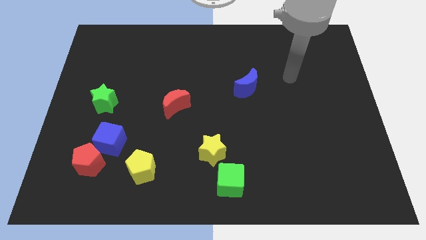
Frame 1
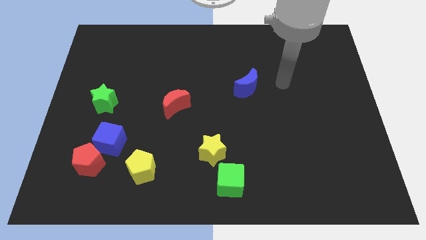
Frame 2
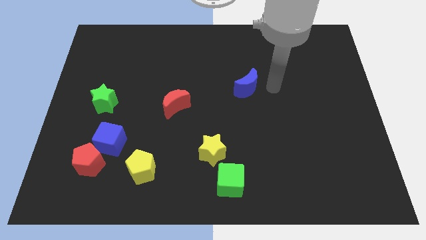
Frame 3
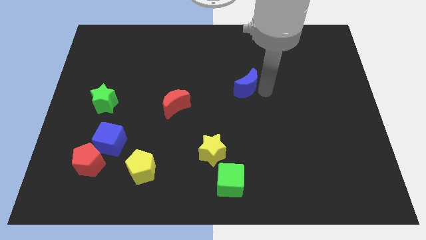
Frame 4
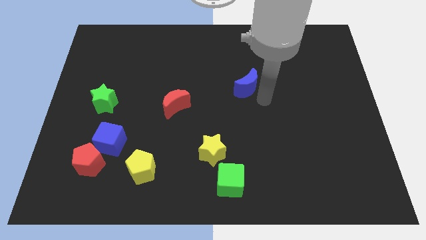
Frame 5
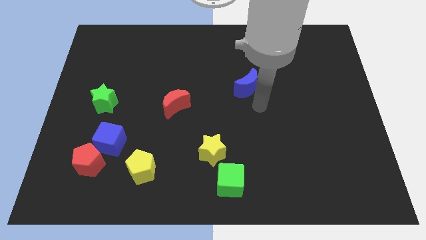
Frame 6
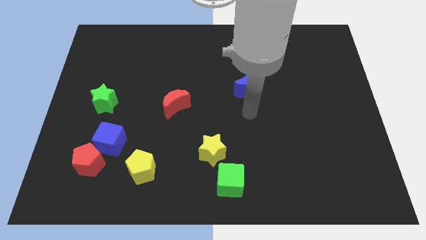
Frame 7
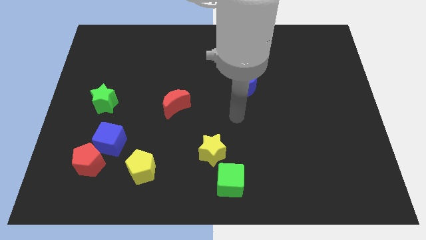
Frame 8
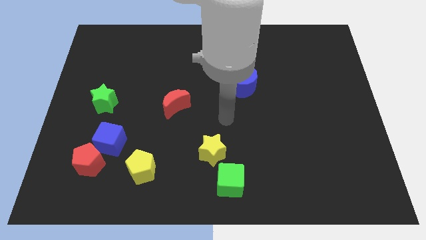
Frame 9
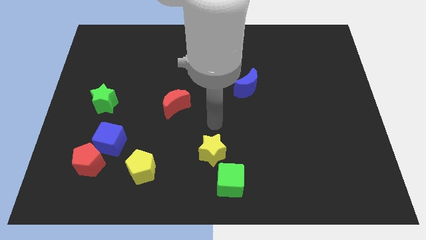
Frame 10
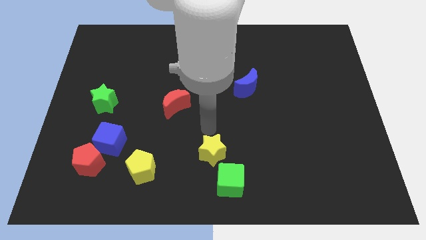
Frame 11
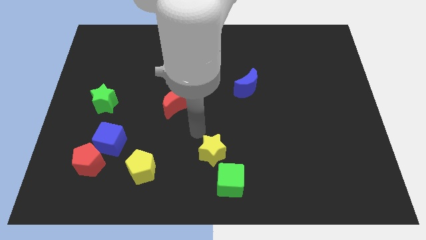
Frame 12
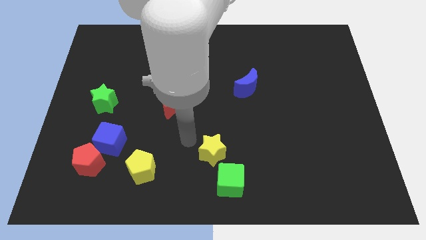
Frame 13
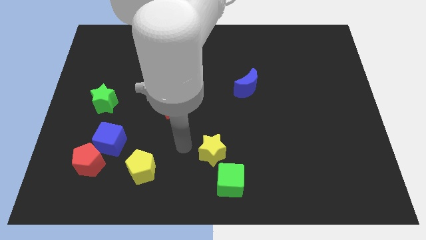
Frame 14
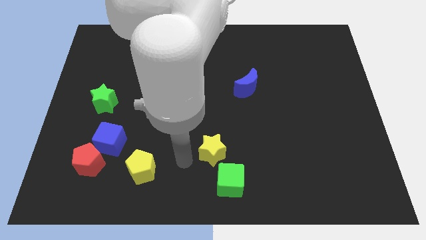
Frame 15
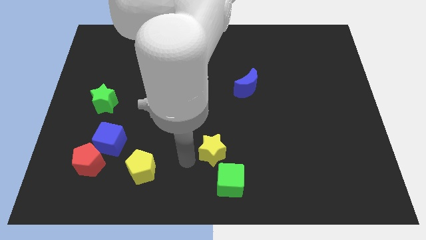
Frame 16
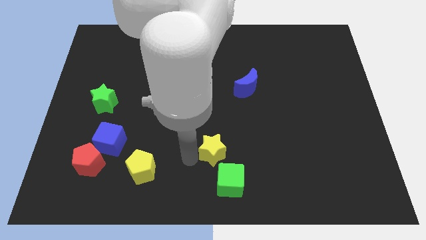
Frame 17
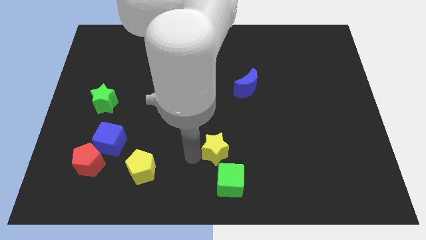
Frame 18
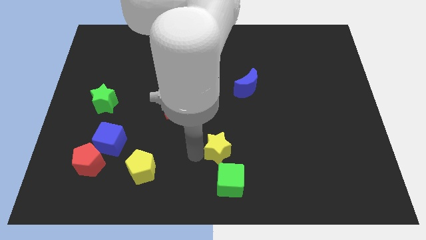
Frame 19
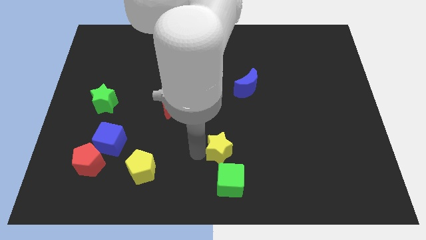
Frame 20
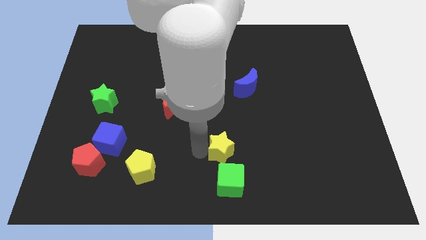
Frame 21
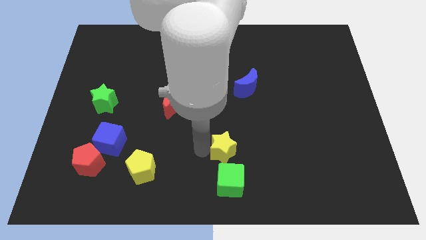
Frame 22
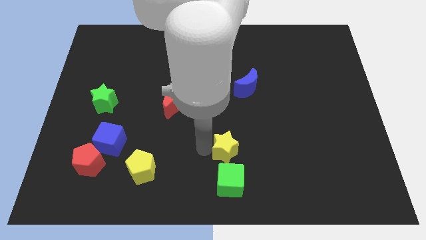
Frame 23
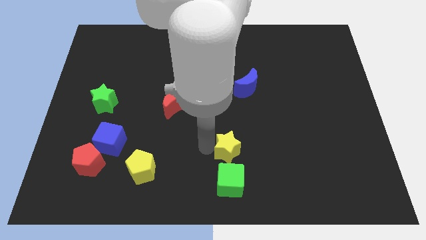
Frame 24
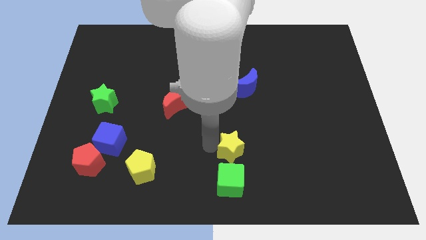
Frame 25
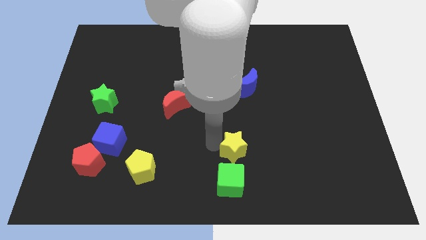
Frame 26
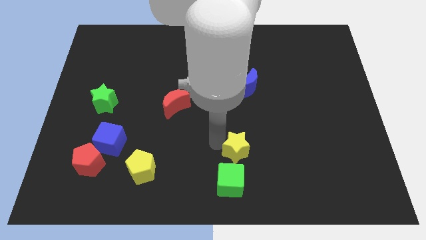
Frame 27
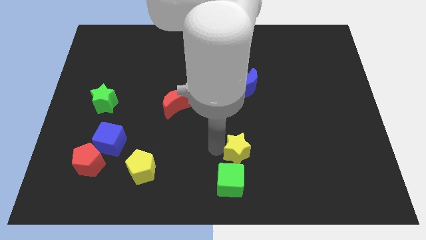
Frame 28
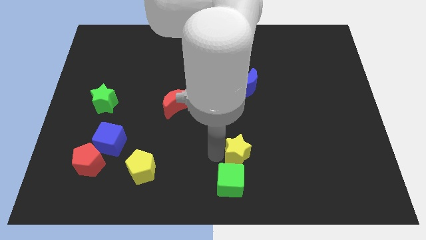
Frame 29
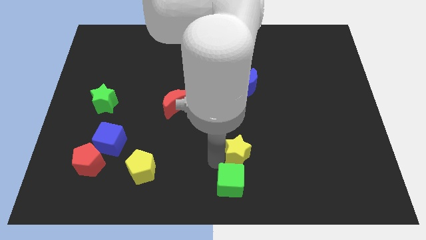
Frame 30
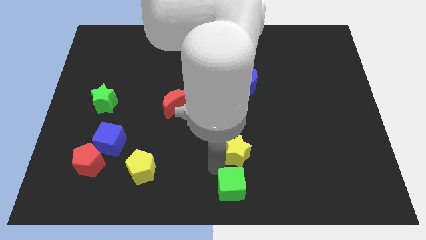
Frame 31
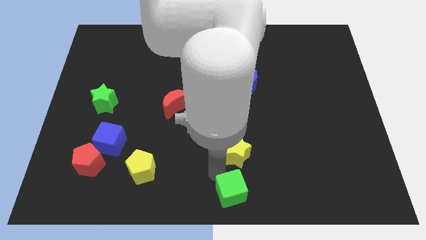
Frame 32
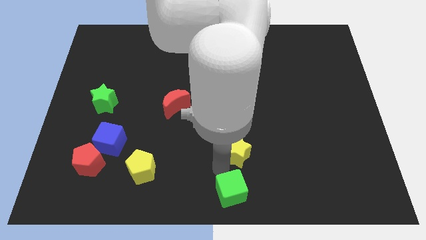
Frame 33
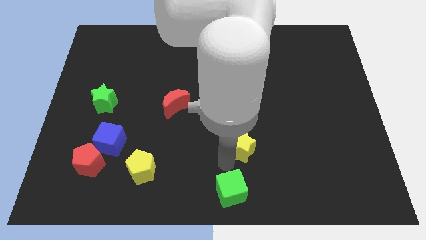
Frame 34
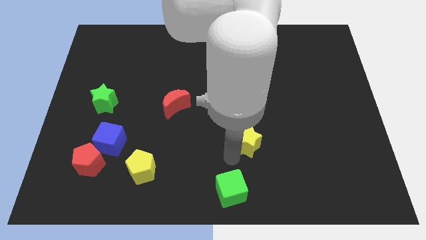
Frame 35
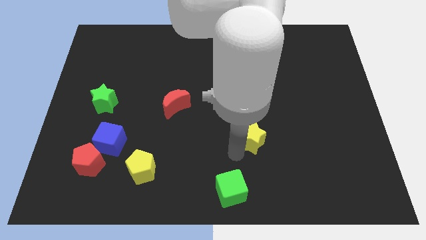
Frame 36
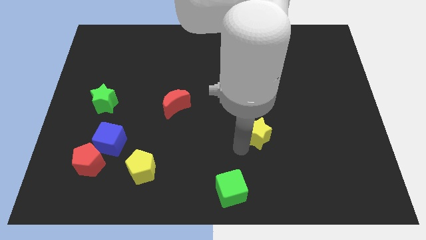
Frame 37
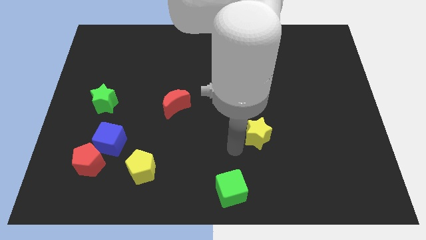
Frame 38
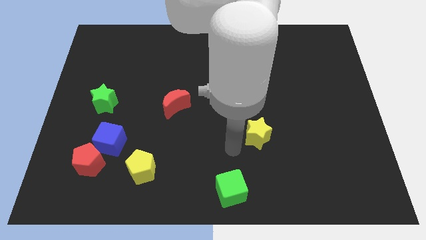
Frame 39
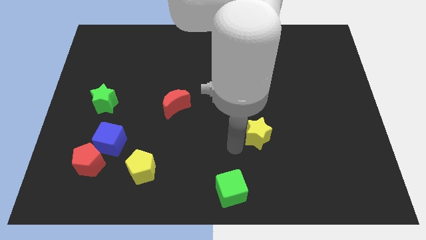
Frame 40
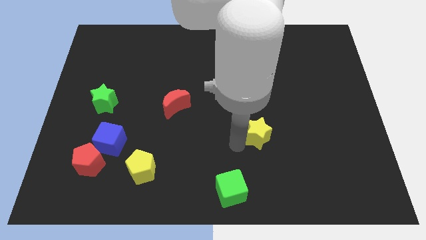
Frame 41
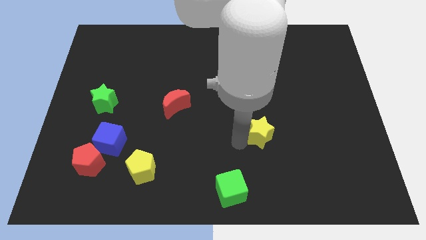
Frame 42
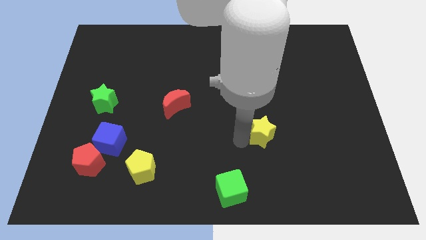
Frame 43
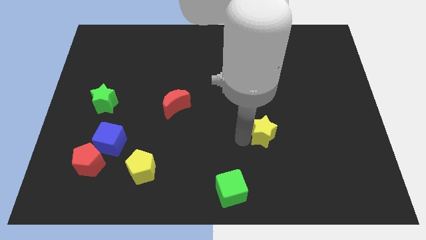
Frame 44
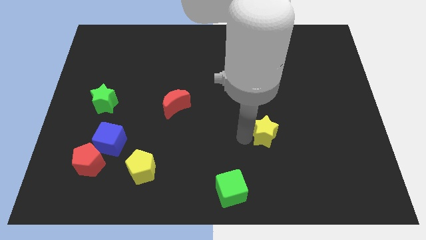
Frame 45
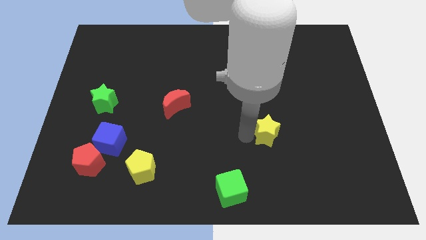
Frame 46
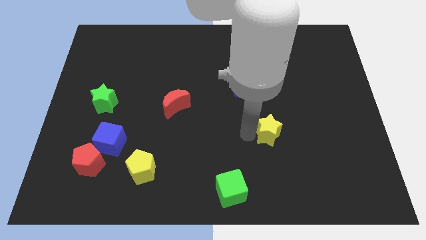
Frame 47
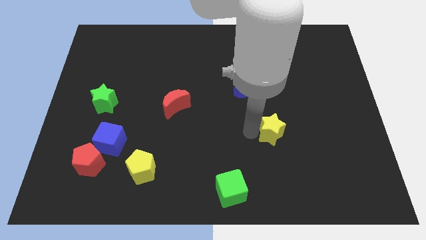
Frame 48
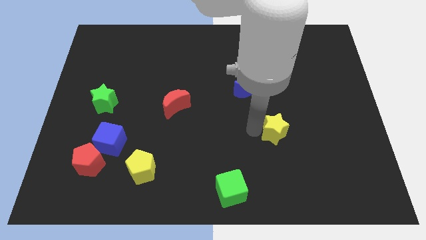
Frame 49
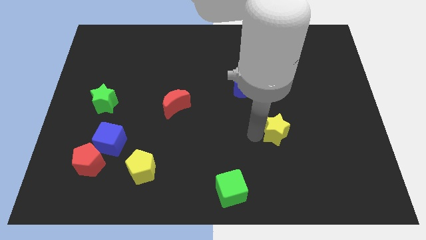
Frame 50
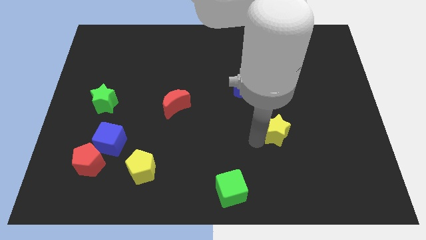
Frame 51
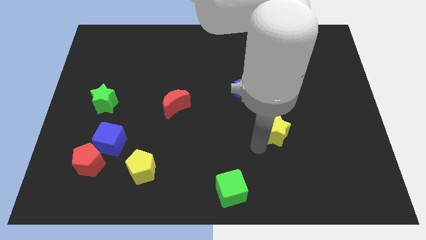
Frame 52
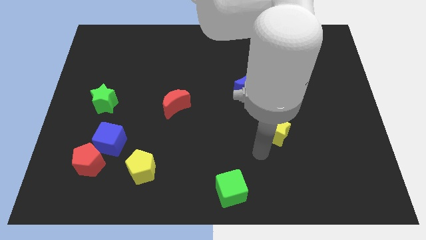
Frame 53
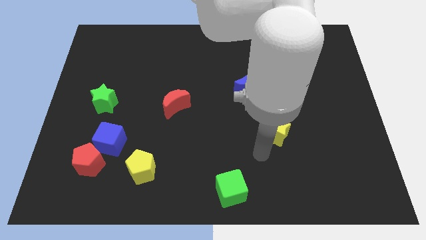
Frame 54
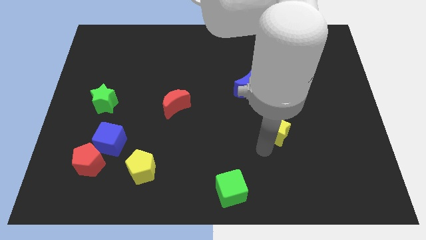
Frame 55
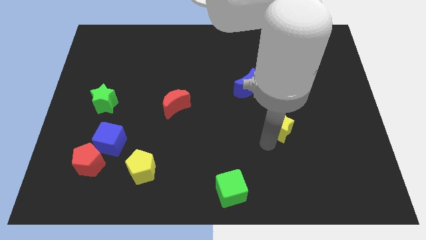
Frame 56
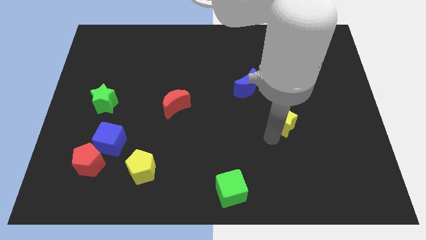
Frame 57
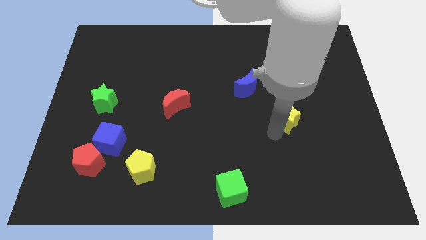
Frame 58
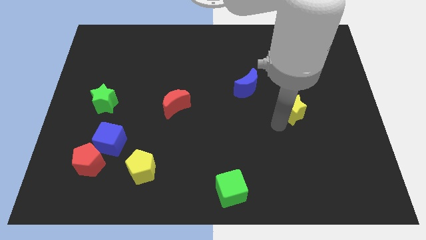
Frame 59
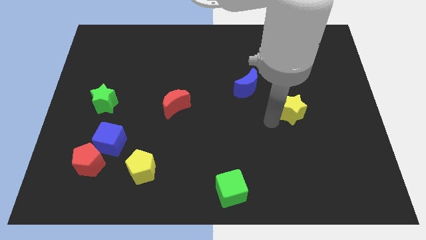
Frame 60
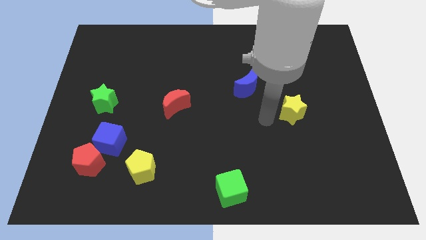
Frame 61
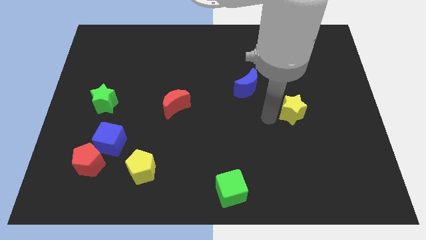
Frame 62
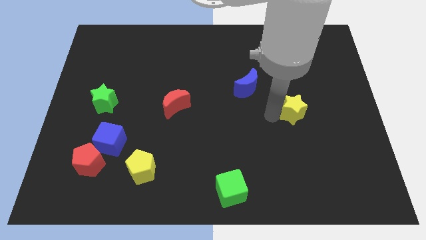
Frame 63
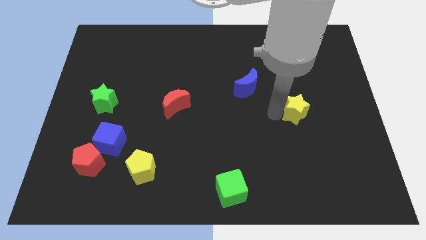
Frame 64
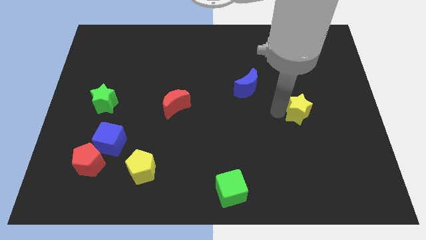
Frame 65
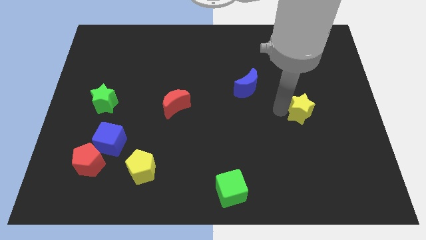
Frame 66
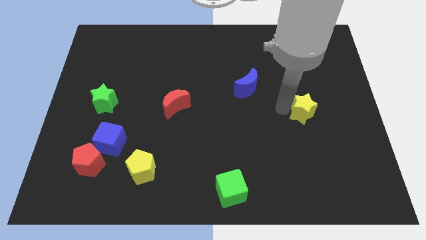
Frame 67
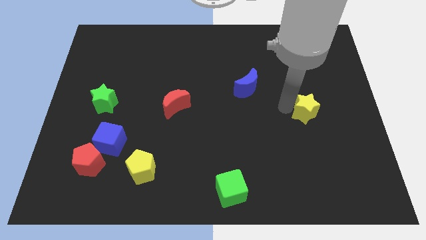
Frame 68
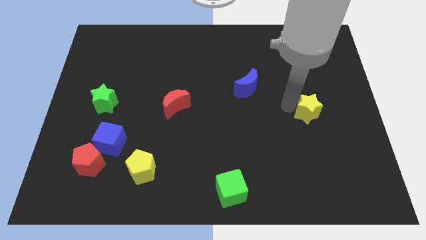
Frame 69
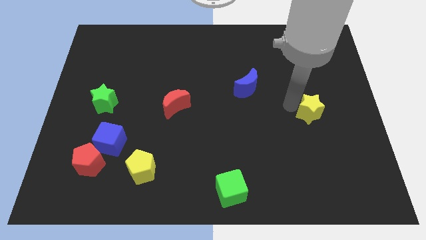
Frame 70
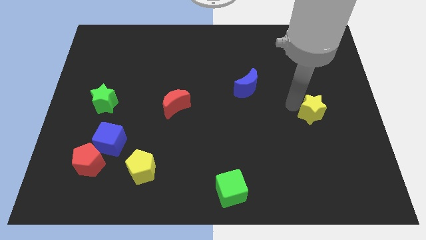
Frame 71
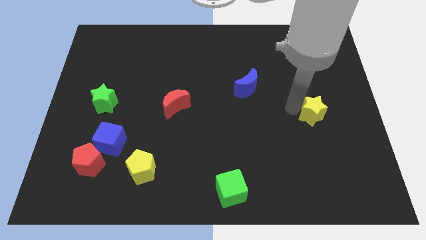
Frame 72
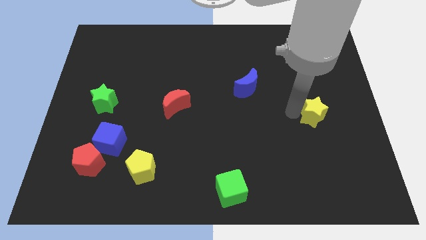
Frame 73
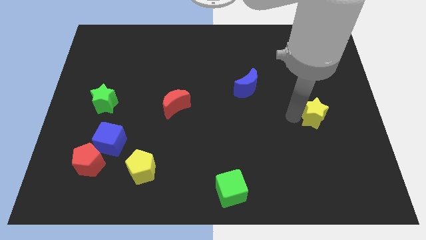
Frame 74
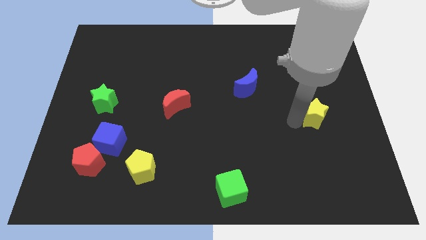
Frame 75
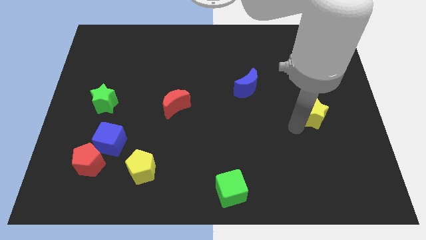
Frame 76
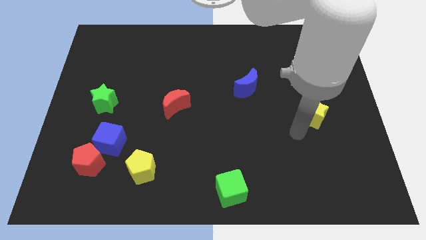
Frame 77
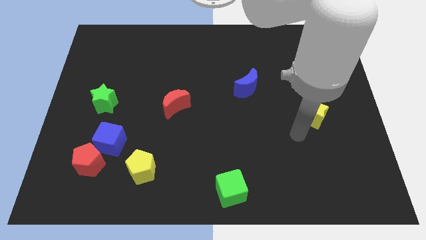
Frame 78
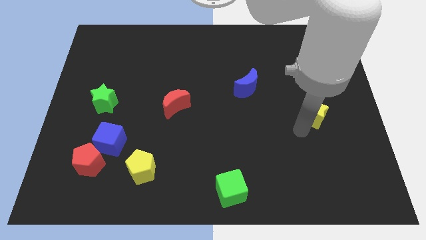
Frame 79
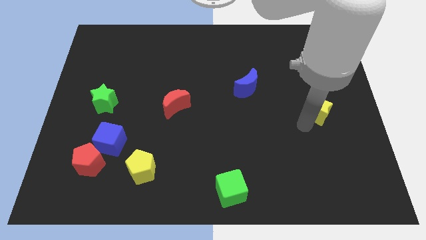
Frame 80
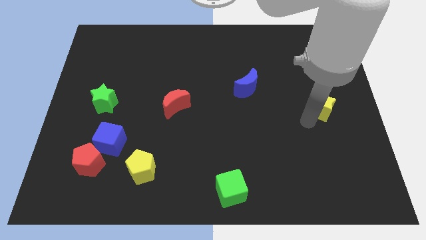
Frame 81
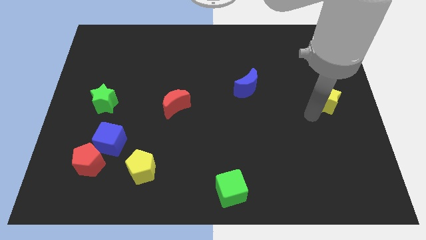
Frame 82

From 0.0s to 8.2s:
push the yellow star to the right side of the board

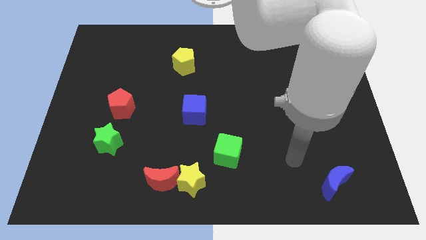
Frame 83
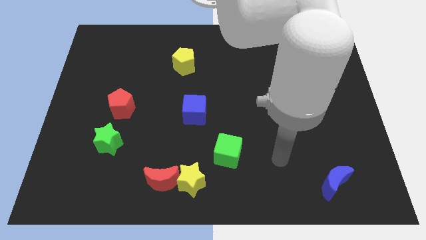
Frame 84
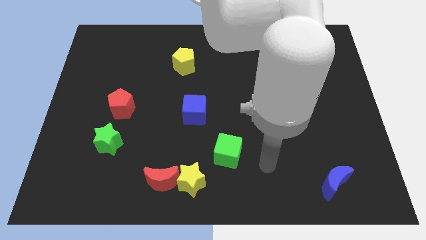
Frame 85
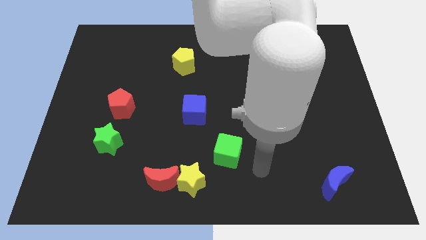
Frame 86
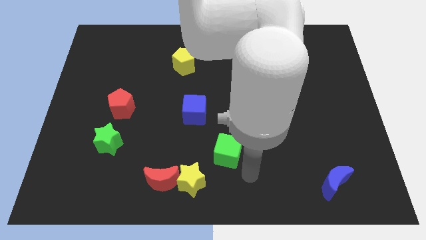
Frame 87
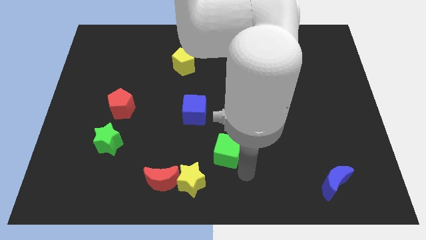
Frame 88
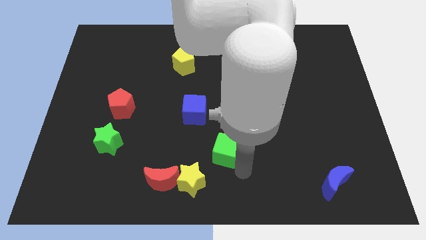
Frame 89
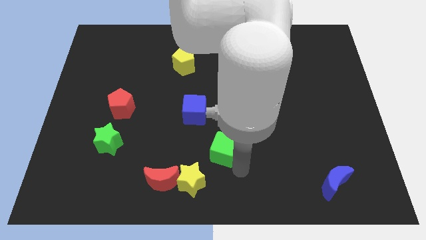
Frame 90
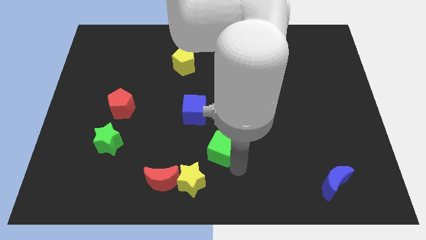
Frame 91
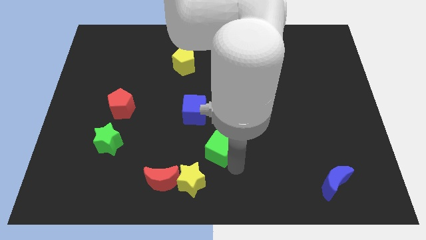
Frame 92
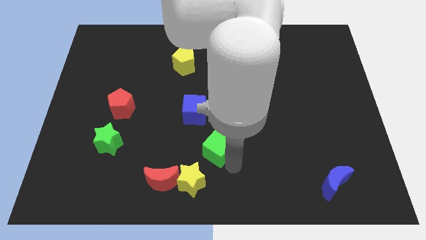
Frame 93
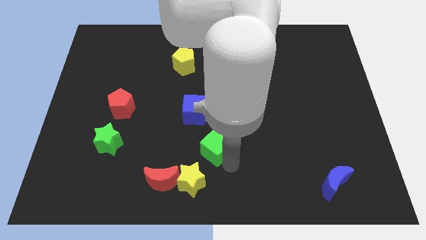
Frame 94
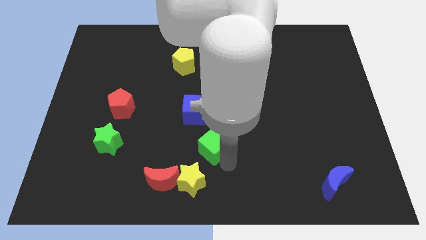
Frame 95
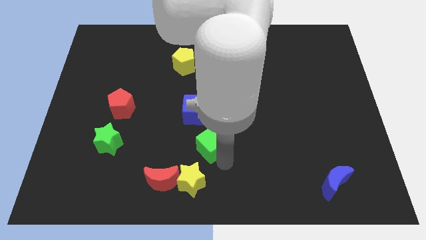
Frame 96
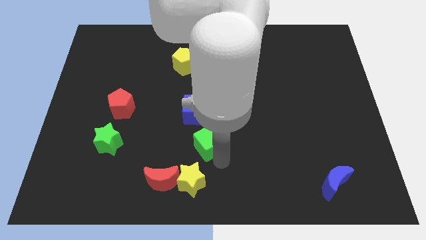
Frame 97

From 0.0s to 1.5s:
put the green cube to the middle
